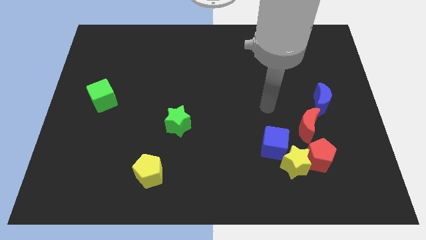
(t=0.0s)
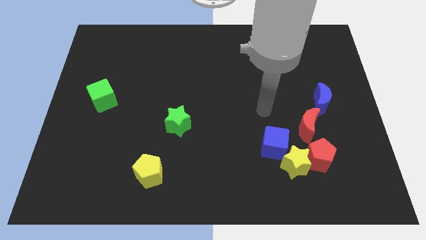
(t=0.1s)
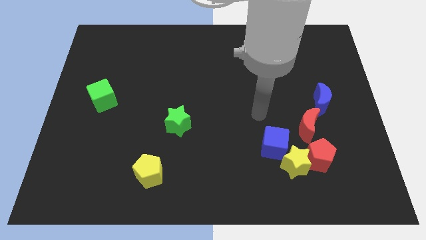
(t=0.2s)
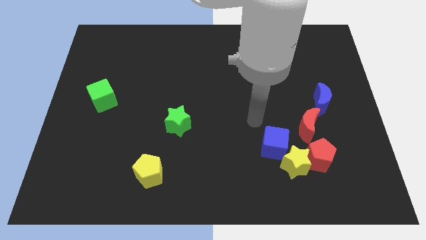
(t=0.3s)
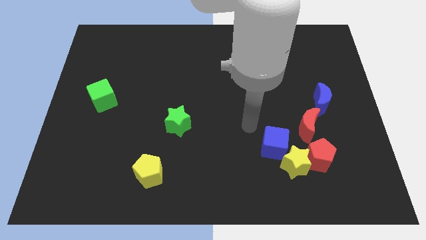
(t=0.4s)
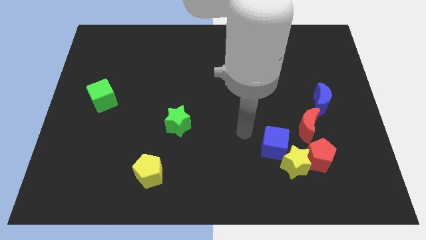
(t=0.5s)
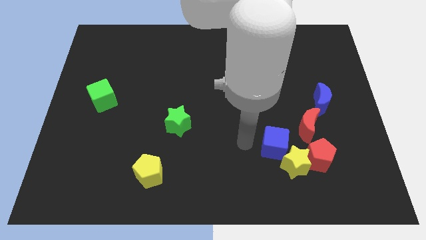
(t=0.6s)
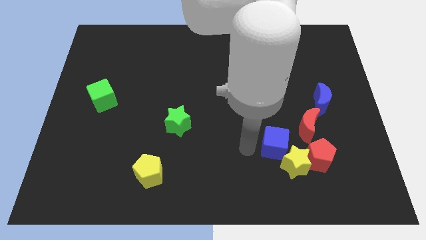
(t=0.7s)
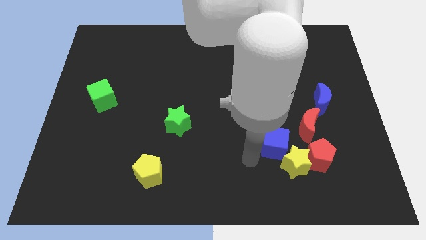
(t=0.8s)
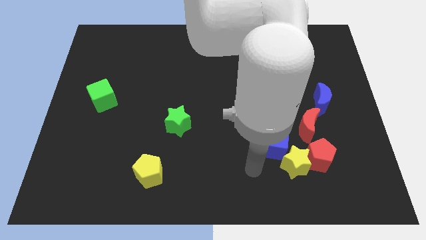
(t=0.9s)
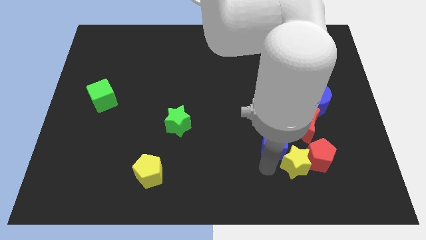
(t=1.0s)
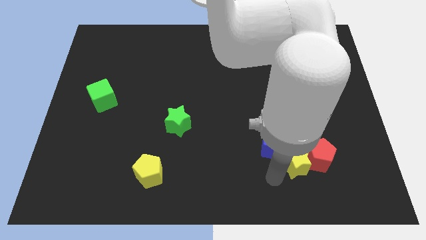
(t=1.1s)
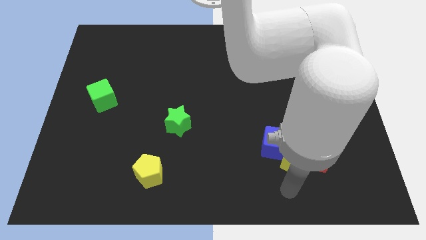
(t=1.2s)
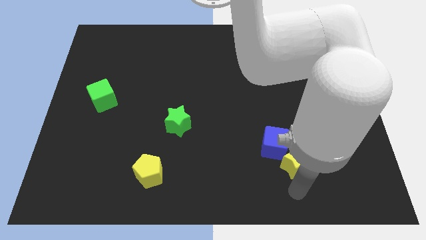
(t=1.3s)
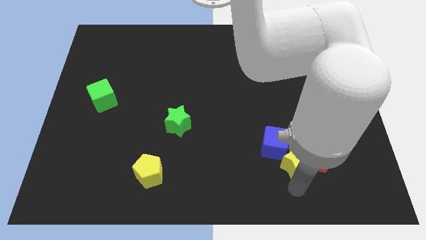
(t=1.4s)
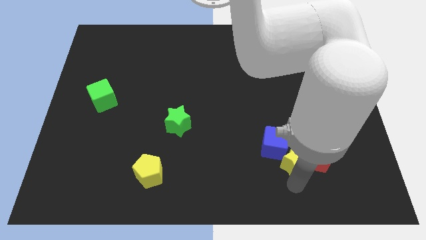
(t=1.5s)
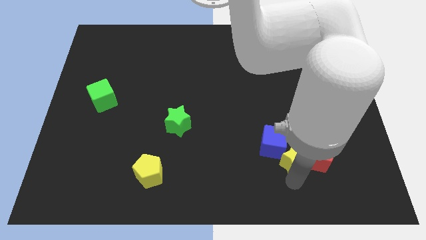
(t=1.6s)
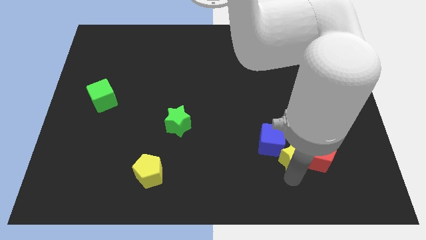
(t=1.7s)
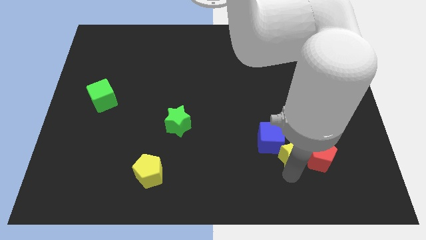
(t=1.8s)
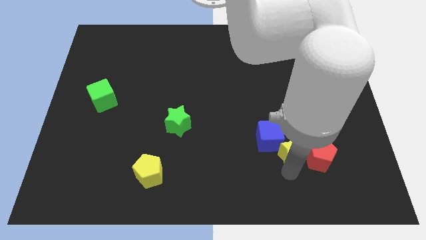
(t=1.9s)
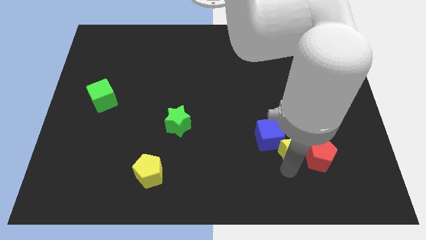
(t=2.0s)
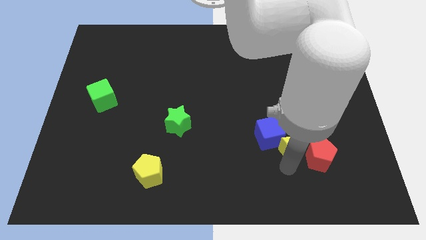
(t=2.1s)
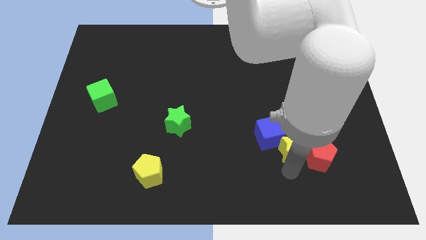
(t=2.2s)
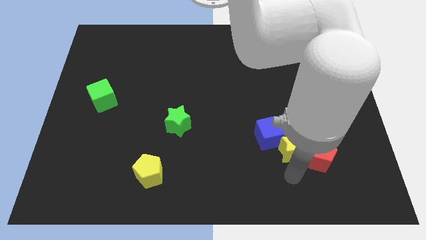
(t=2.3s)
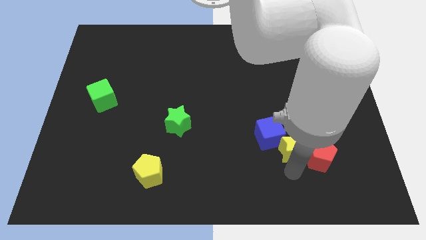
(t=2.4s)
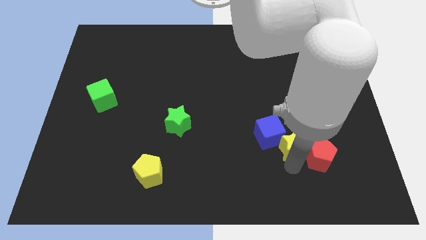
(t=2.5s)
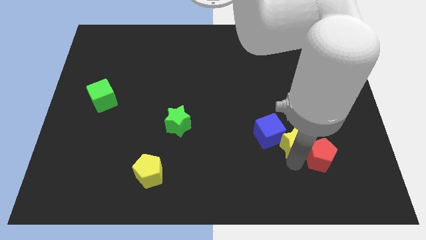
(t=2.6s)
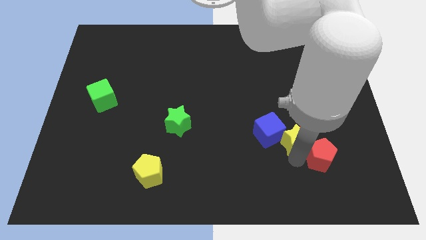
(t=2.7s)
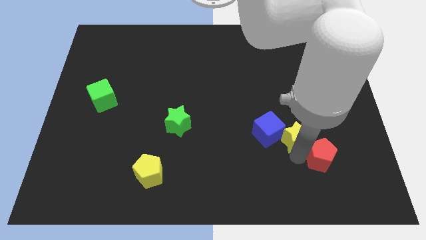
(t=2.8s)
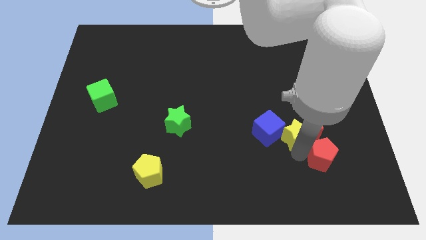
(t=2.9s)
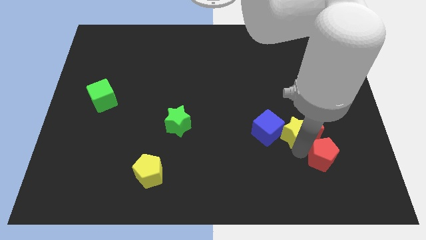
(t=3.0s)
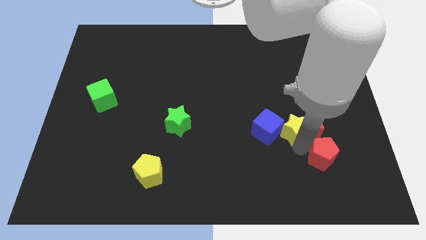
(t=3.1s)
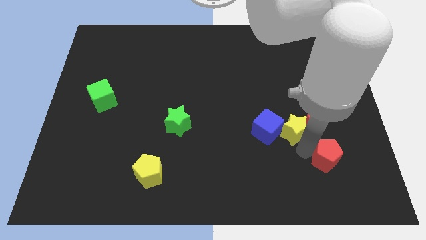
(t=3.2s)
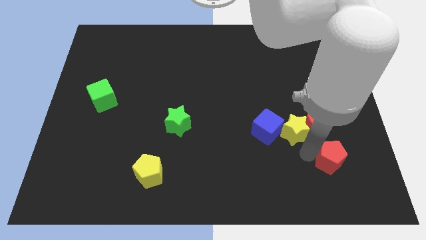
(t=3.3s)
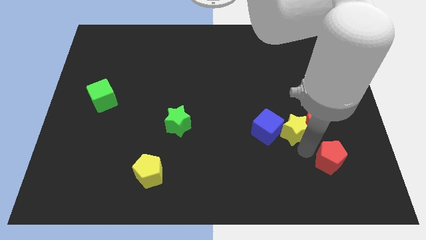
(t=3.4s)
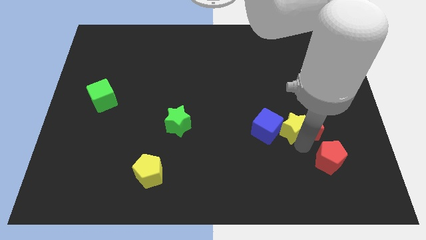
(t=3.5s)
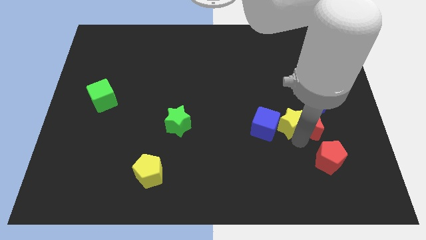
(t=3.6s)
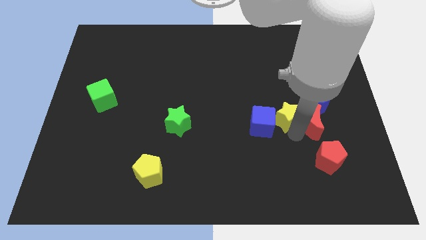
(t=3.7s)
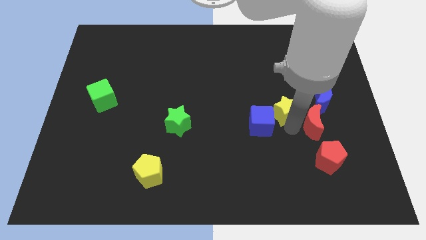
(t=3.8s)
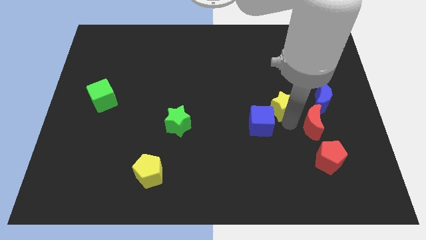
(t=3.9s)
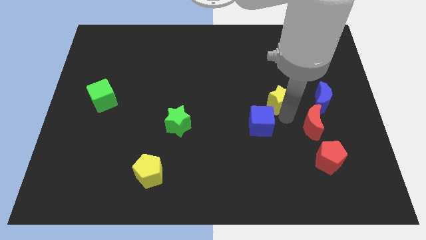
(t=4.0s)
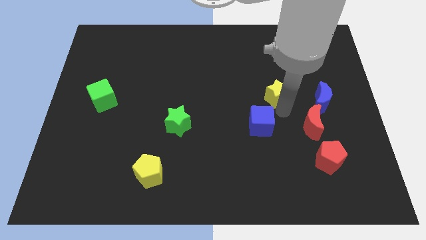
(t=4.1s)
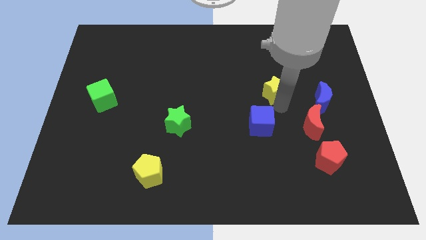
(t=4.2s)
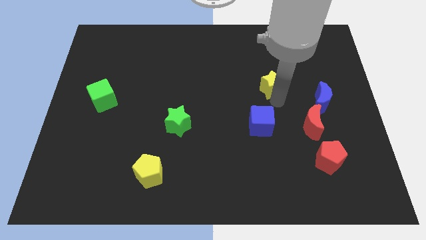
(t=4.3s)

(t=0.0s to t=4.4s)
move the yellow star up

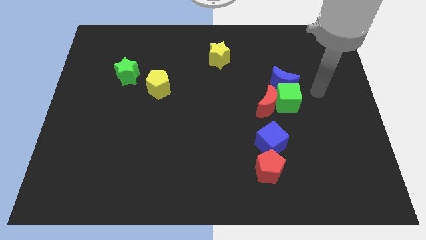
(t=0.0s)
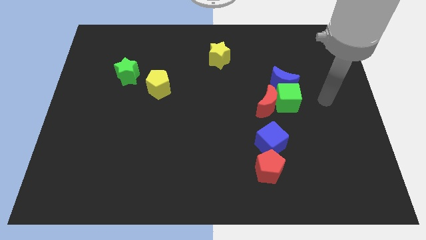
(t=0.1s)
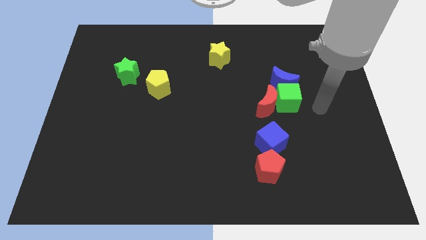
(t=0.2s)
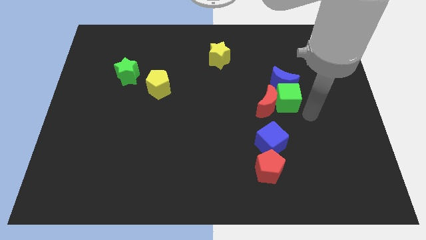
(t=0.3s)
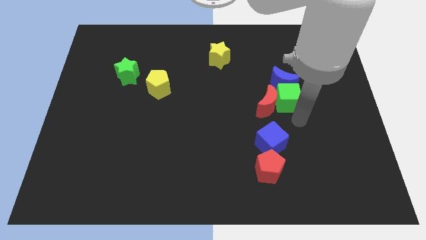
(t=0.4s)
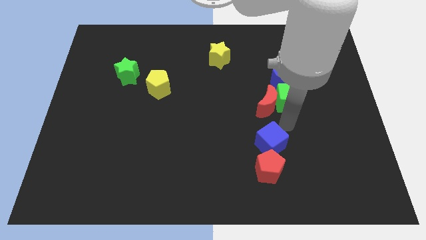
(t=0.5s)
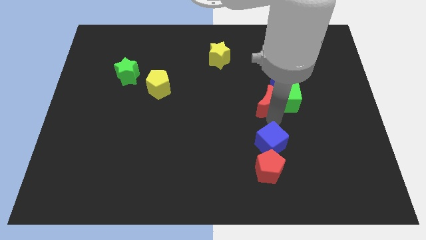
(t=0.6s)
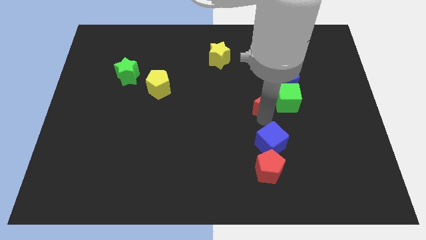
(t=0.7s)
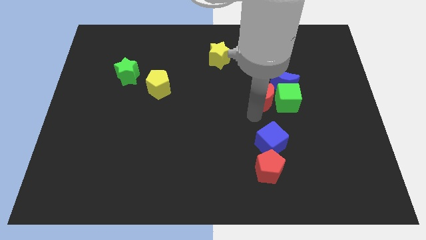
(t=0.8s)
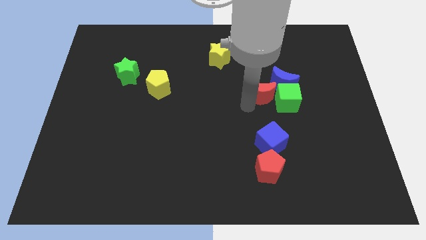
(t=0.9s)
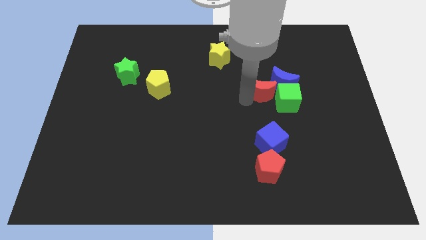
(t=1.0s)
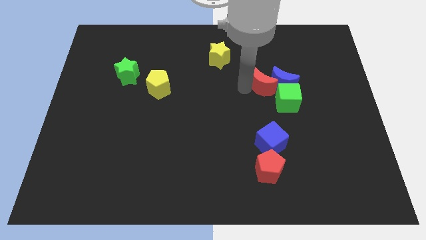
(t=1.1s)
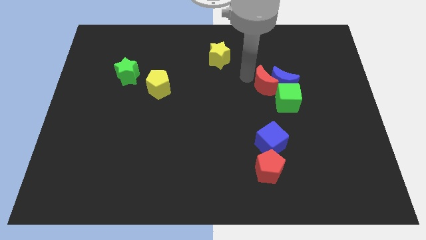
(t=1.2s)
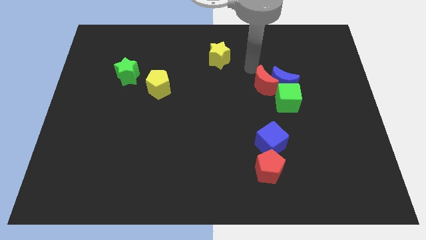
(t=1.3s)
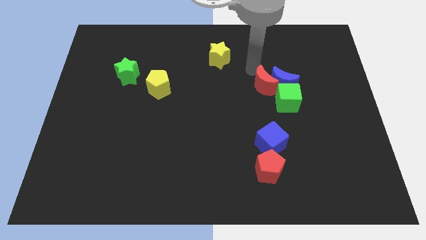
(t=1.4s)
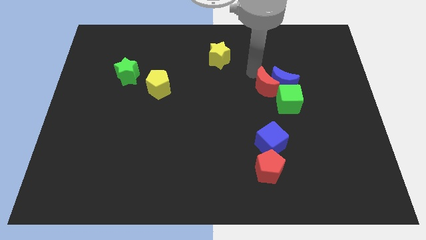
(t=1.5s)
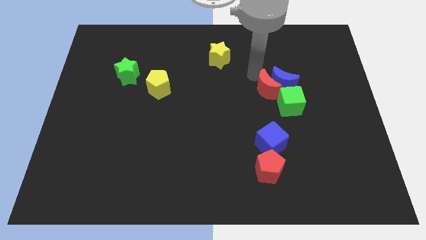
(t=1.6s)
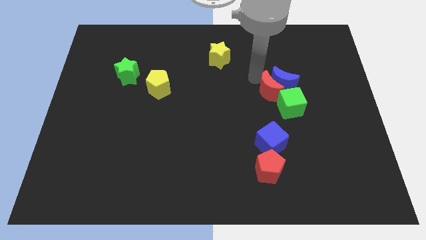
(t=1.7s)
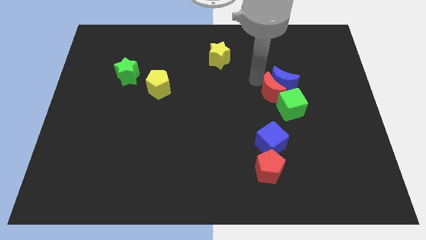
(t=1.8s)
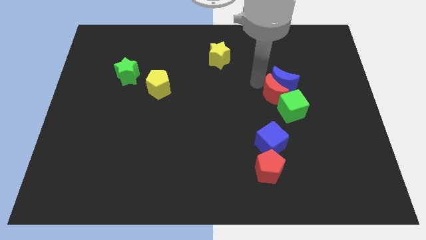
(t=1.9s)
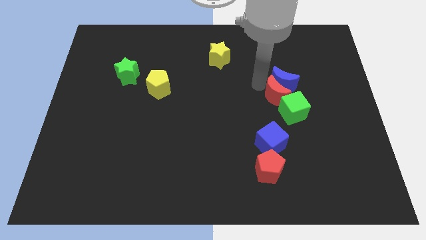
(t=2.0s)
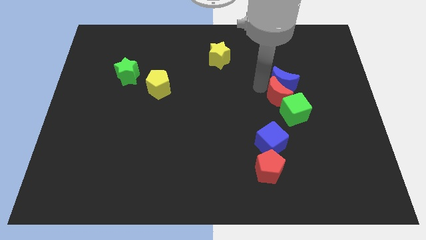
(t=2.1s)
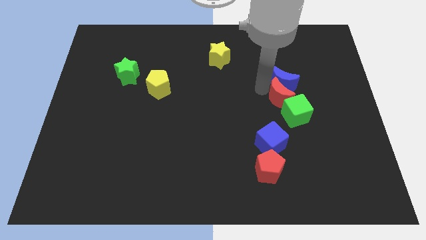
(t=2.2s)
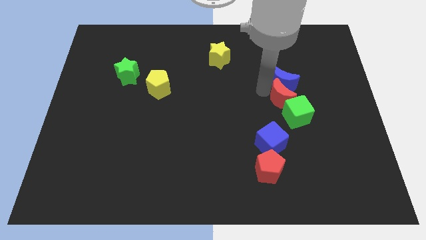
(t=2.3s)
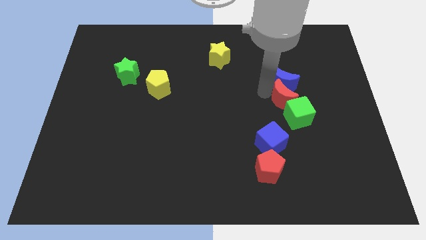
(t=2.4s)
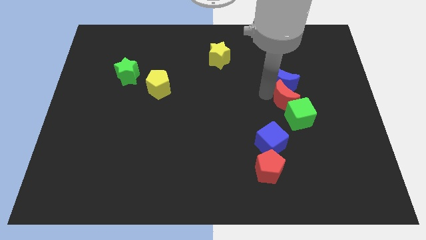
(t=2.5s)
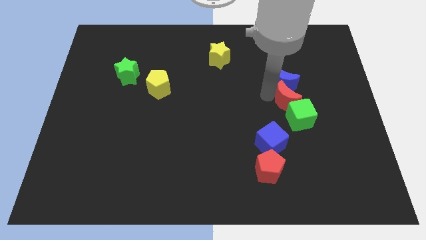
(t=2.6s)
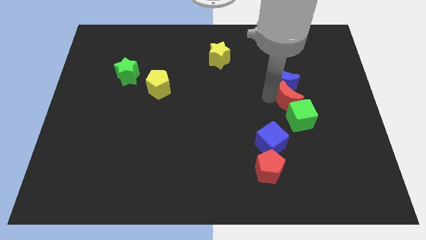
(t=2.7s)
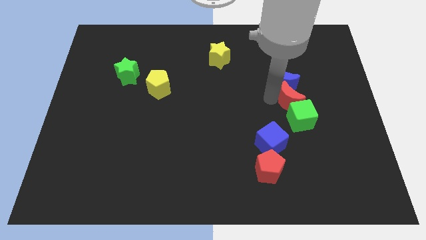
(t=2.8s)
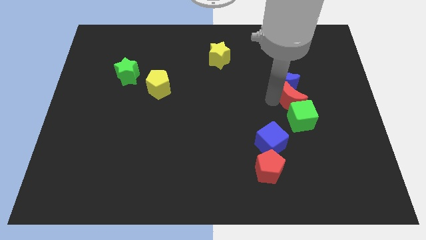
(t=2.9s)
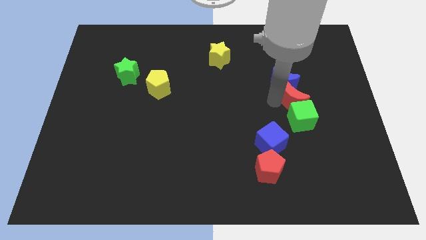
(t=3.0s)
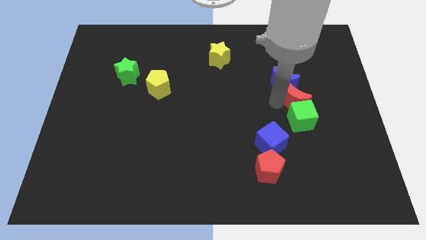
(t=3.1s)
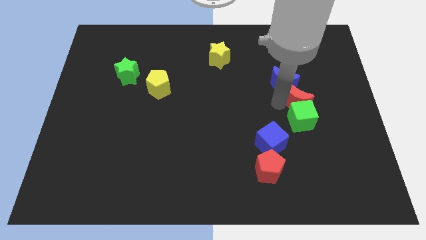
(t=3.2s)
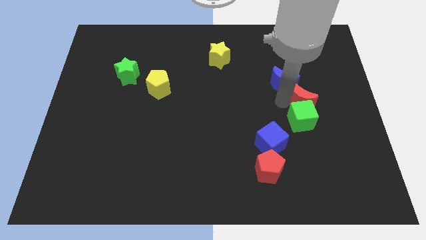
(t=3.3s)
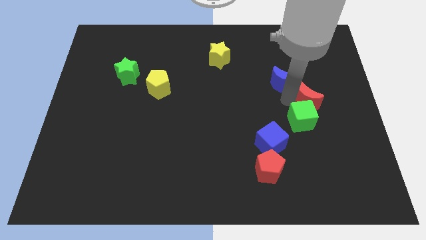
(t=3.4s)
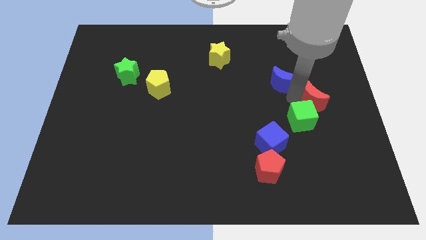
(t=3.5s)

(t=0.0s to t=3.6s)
slightly slide the red moon upwards and right diagonally
